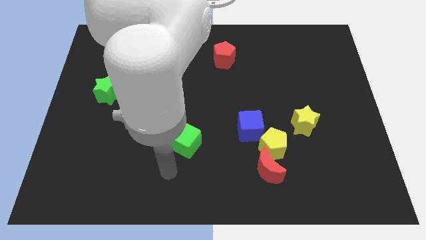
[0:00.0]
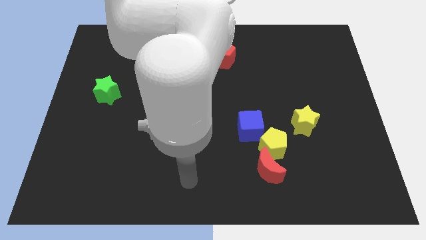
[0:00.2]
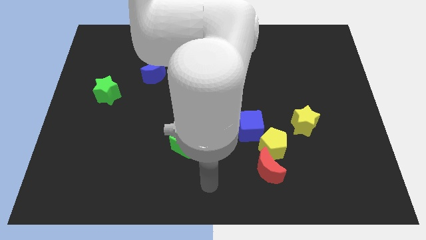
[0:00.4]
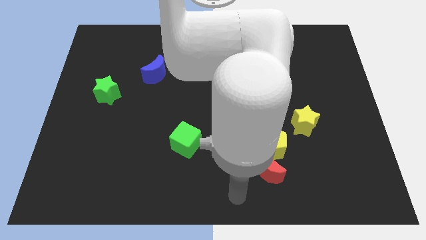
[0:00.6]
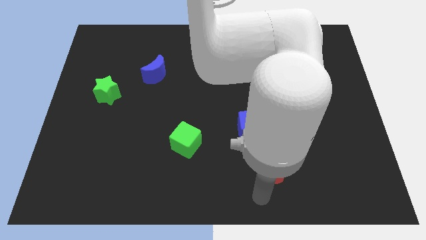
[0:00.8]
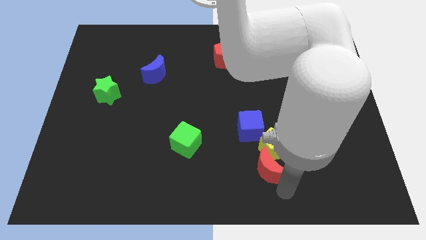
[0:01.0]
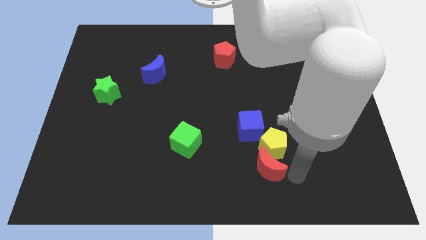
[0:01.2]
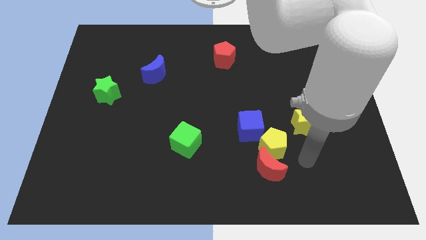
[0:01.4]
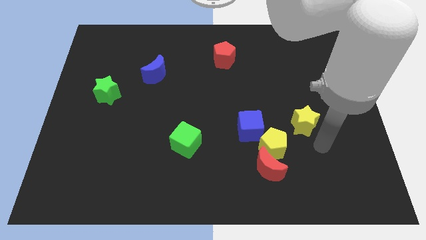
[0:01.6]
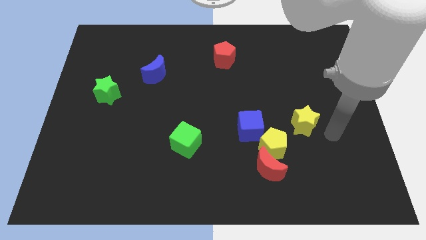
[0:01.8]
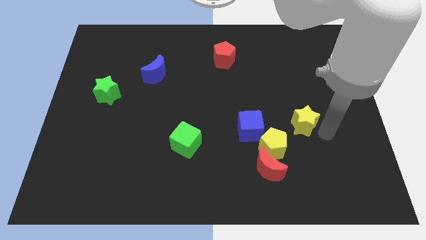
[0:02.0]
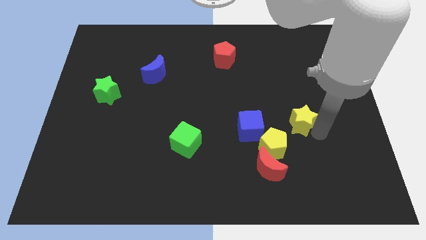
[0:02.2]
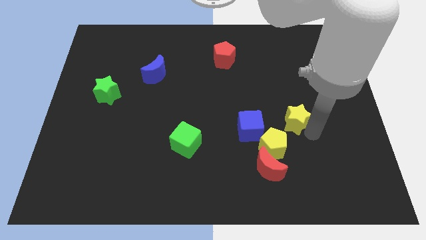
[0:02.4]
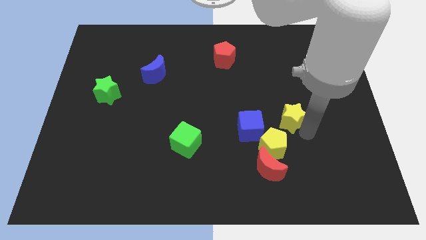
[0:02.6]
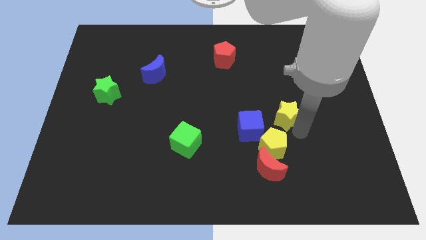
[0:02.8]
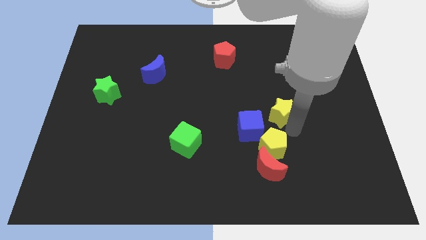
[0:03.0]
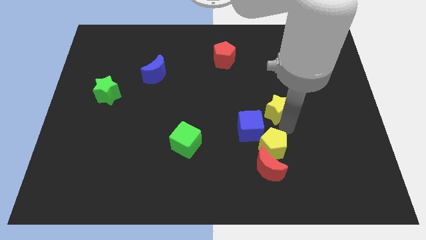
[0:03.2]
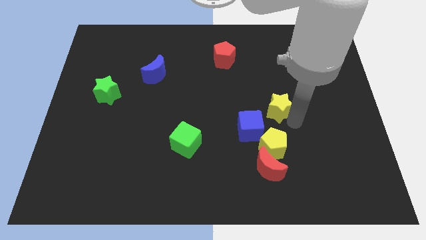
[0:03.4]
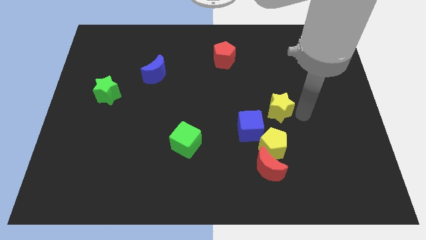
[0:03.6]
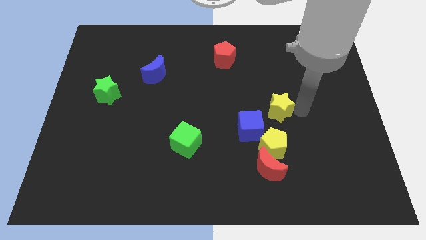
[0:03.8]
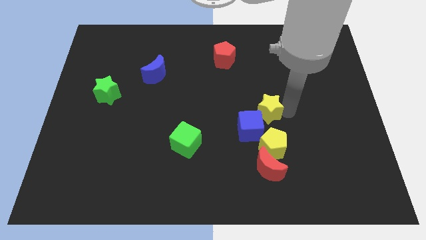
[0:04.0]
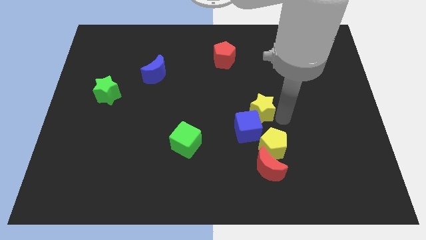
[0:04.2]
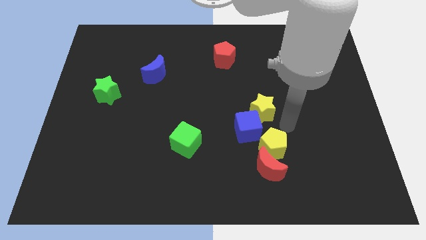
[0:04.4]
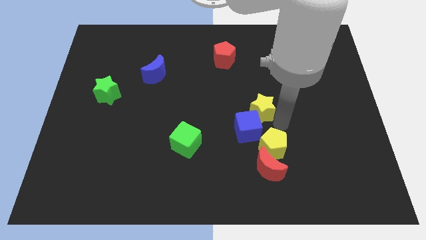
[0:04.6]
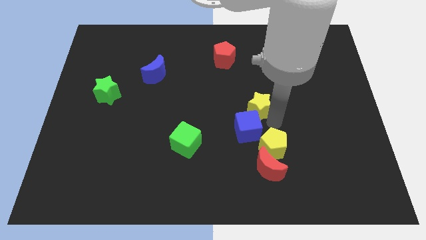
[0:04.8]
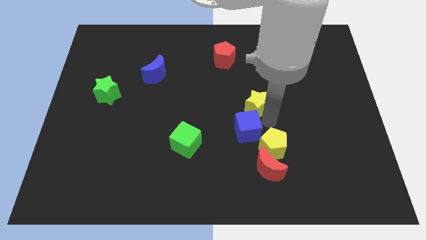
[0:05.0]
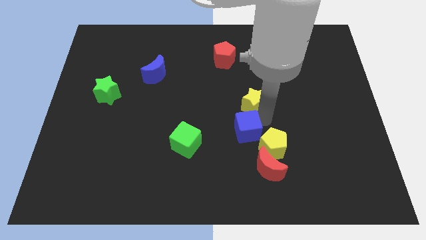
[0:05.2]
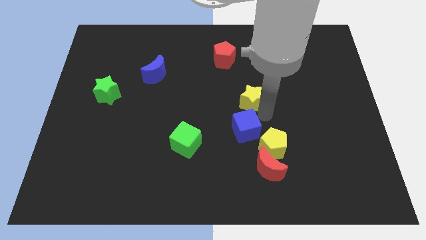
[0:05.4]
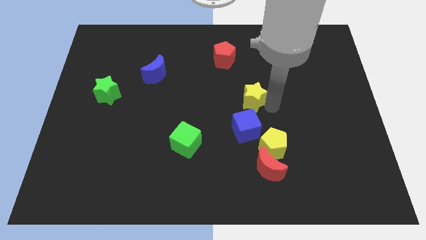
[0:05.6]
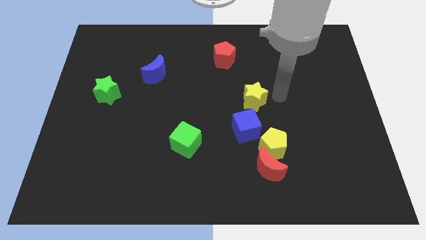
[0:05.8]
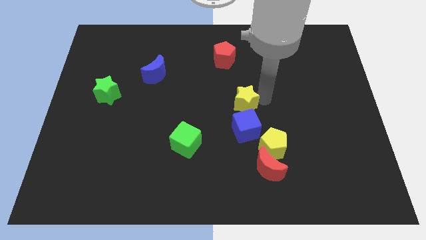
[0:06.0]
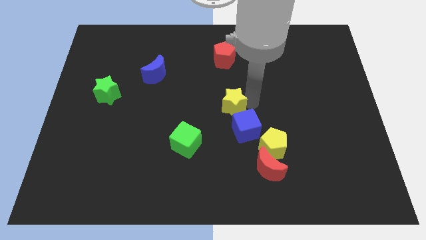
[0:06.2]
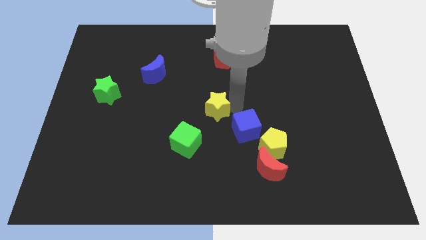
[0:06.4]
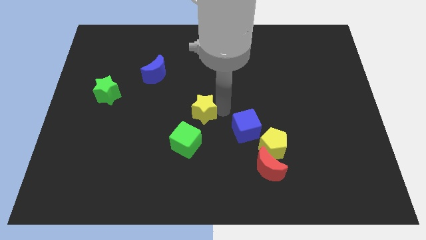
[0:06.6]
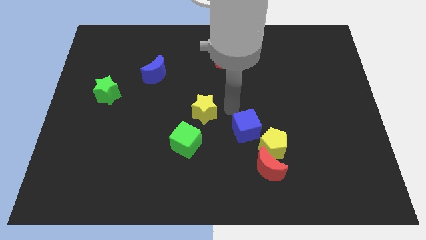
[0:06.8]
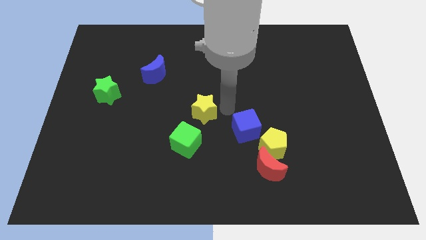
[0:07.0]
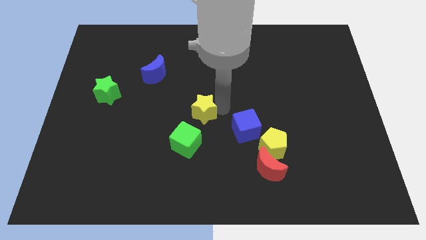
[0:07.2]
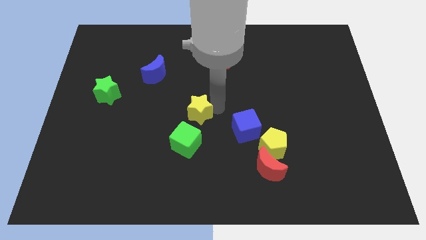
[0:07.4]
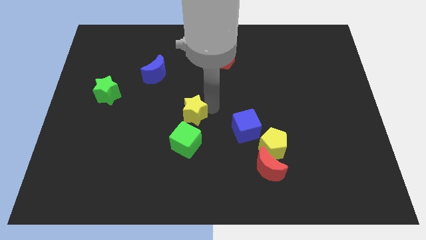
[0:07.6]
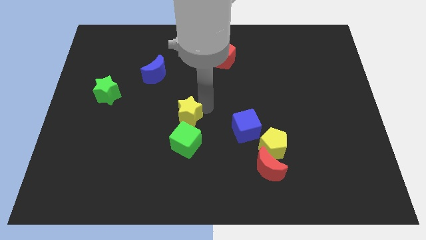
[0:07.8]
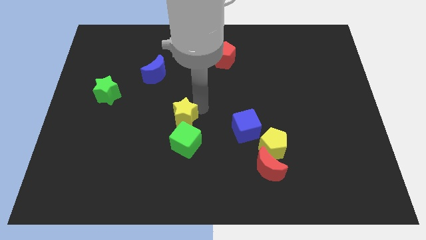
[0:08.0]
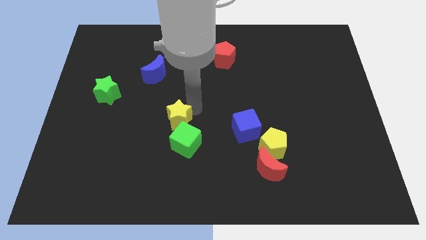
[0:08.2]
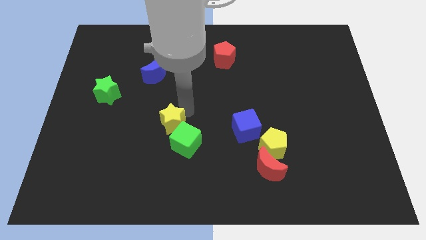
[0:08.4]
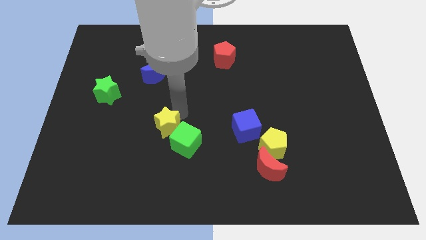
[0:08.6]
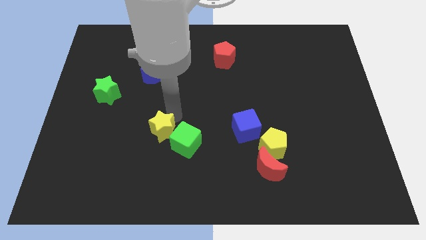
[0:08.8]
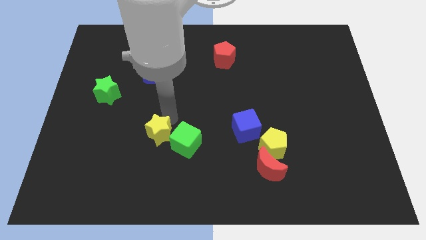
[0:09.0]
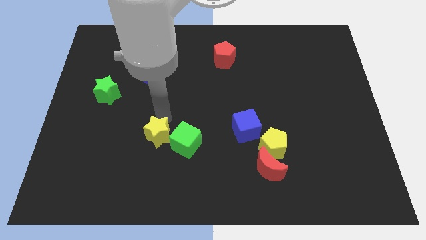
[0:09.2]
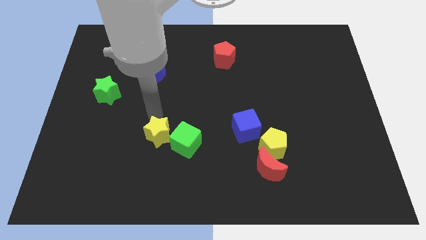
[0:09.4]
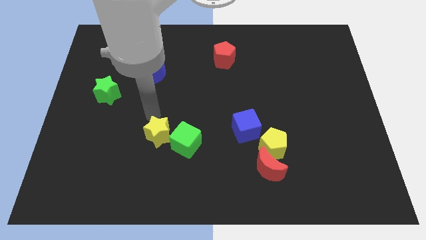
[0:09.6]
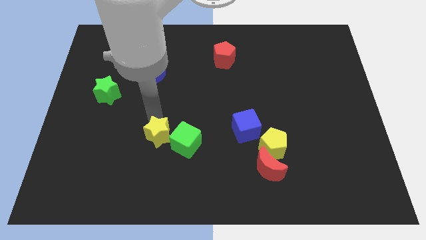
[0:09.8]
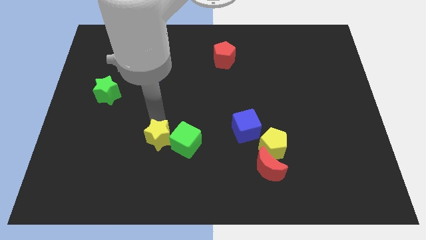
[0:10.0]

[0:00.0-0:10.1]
push the yellow star diagonally down and to the left of the green cube
